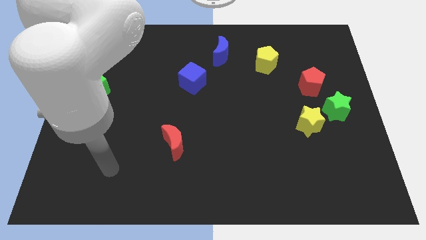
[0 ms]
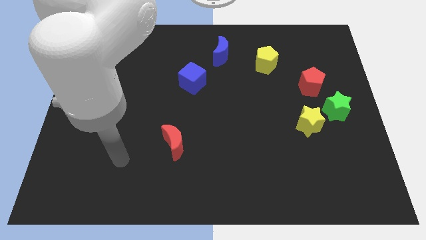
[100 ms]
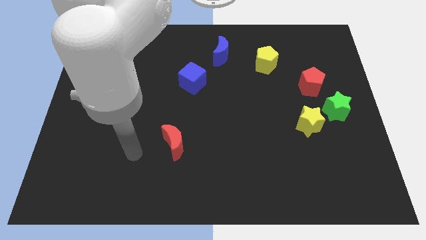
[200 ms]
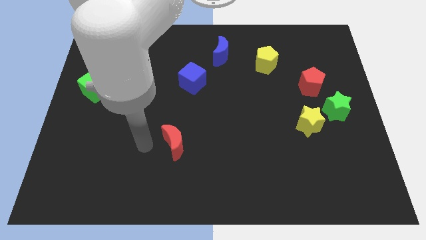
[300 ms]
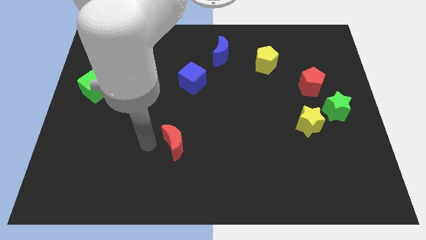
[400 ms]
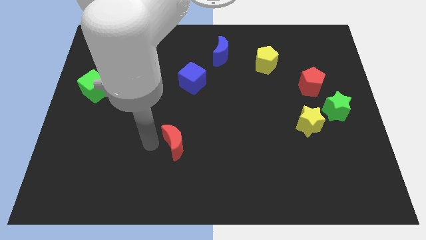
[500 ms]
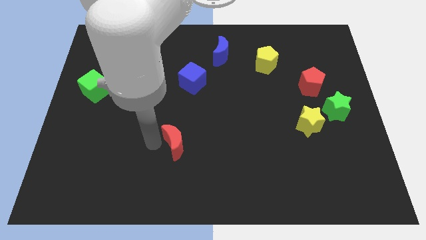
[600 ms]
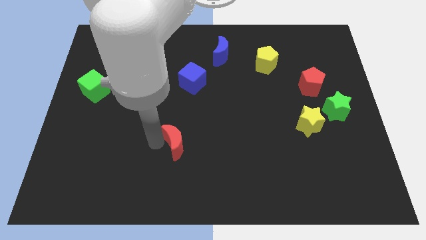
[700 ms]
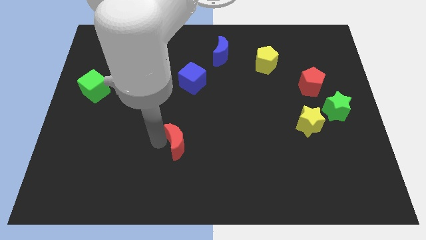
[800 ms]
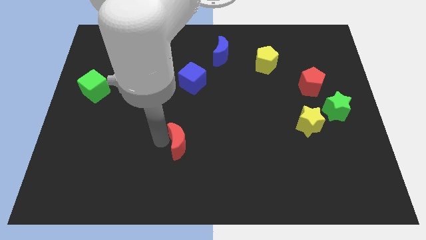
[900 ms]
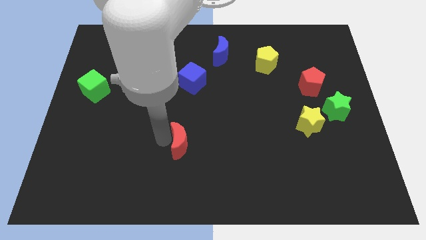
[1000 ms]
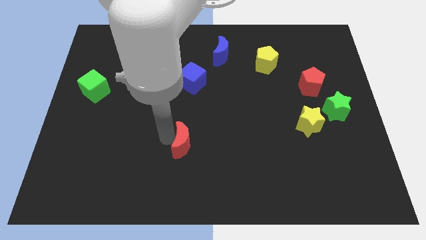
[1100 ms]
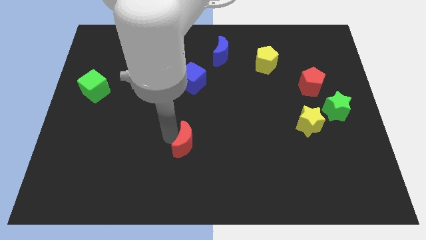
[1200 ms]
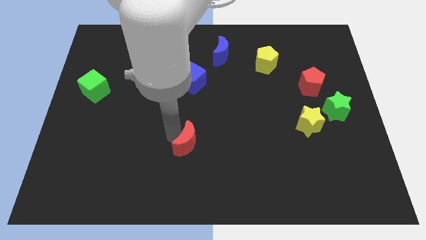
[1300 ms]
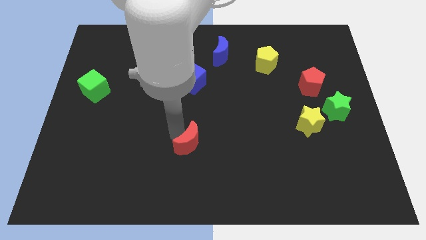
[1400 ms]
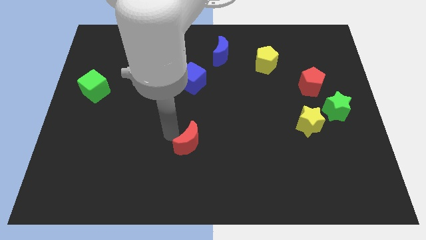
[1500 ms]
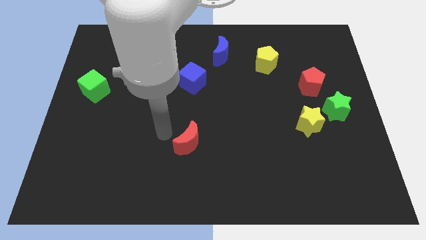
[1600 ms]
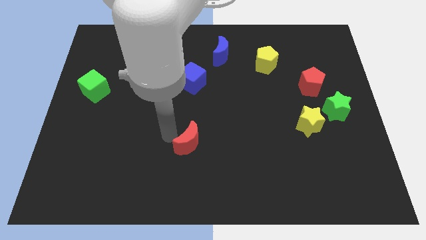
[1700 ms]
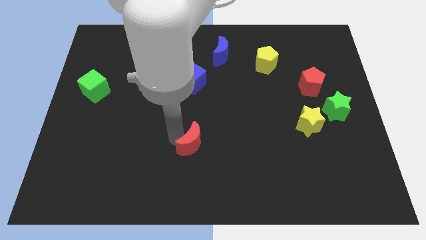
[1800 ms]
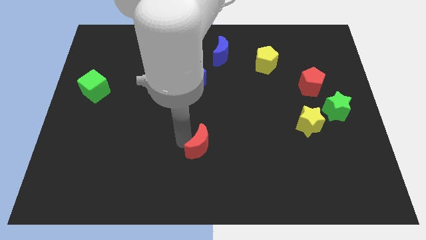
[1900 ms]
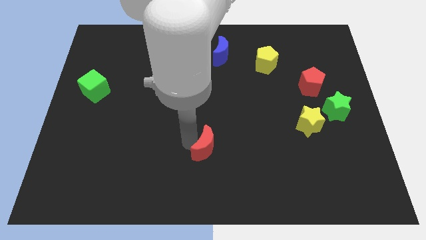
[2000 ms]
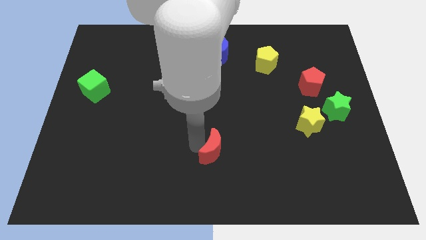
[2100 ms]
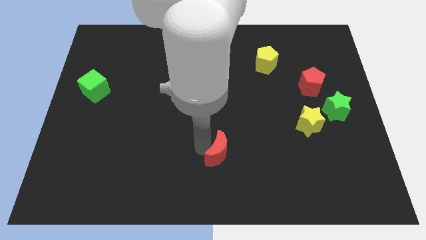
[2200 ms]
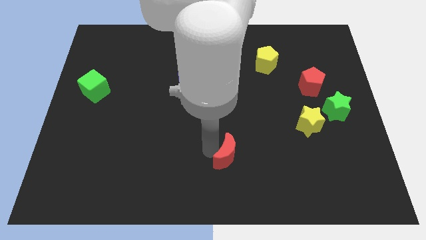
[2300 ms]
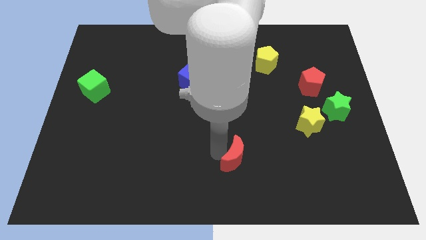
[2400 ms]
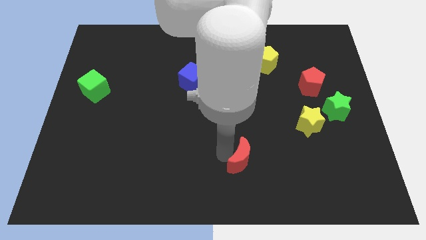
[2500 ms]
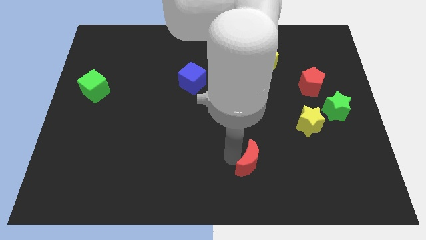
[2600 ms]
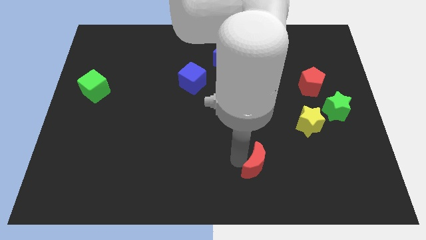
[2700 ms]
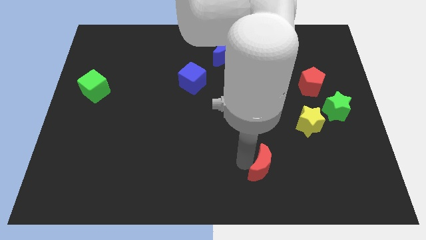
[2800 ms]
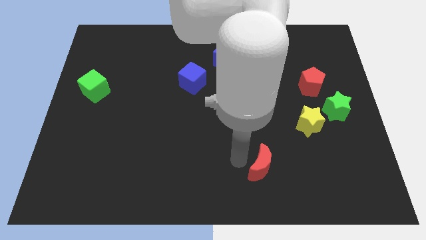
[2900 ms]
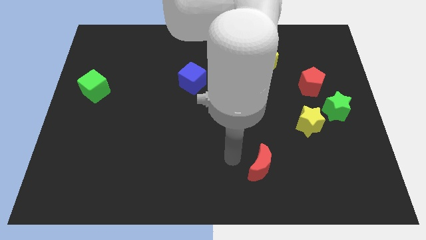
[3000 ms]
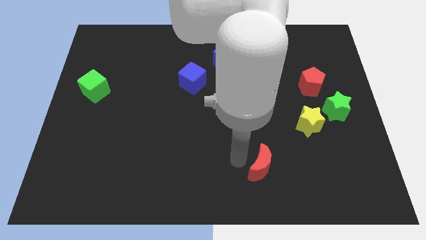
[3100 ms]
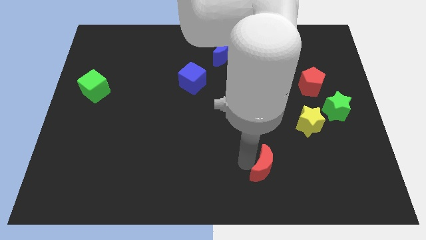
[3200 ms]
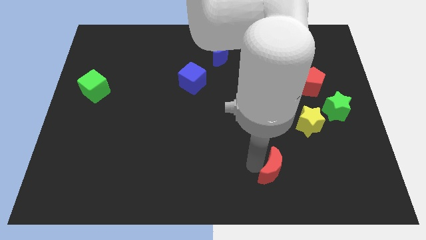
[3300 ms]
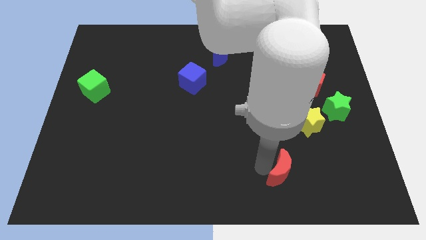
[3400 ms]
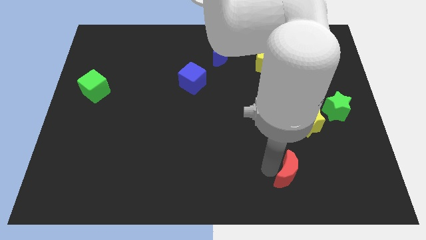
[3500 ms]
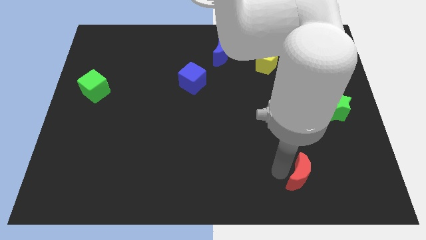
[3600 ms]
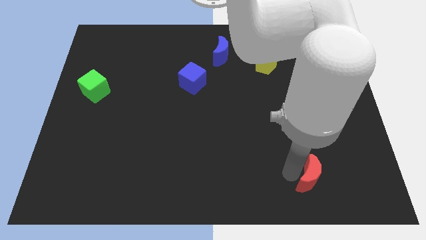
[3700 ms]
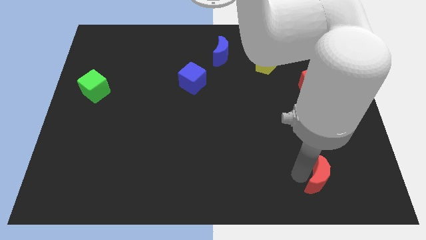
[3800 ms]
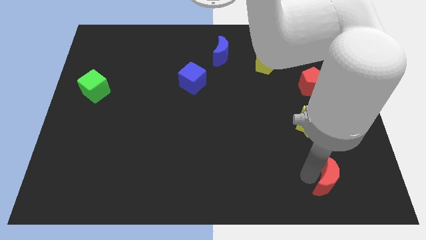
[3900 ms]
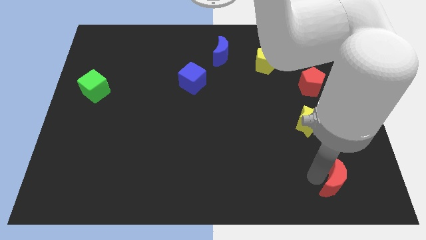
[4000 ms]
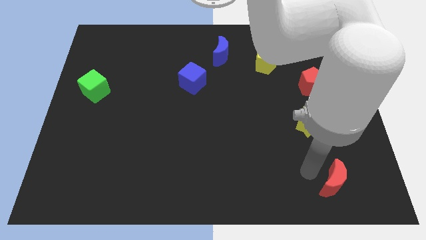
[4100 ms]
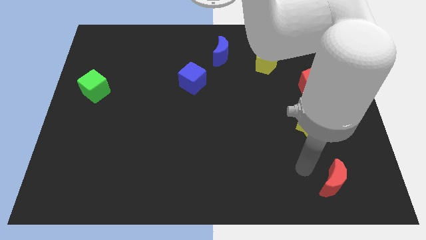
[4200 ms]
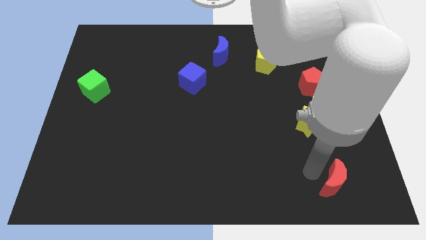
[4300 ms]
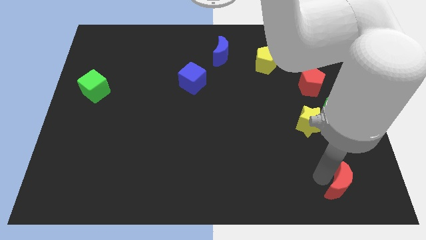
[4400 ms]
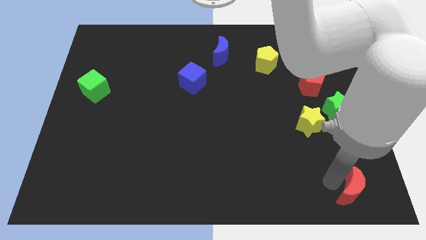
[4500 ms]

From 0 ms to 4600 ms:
move the red moon to the lower right corner

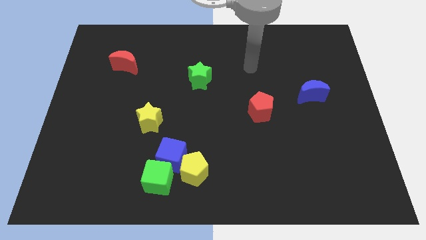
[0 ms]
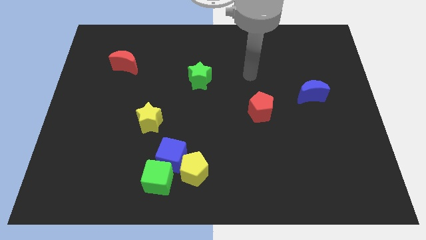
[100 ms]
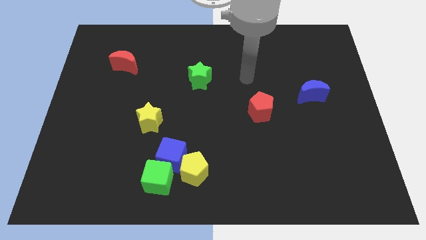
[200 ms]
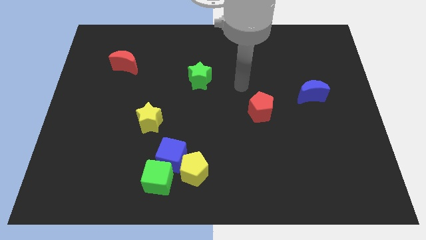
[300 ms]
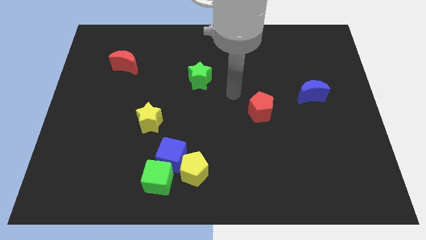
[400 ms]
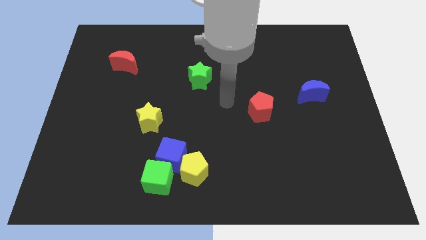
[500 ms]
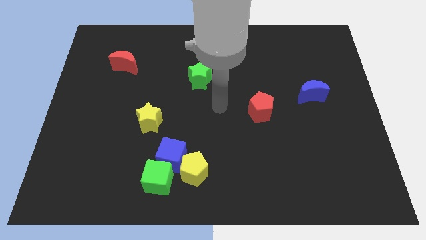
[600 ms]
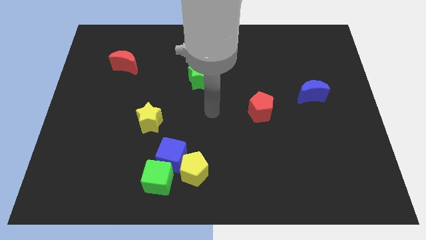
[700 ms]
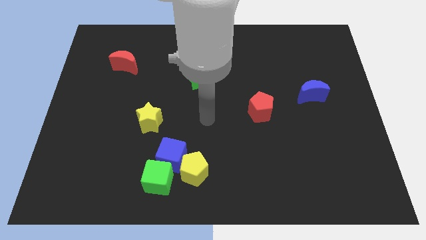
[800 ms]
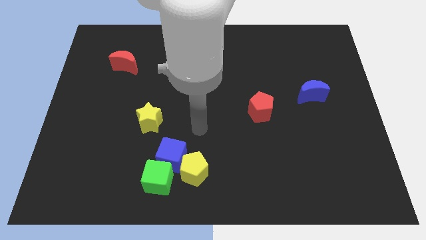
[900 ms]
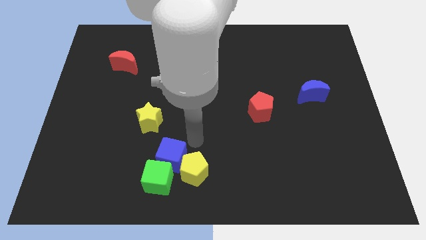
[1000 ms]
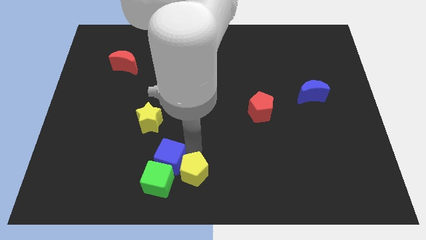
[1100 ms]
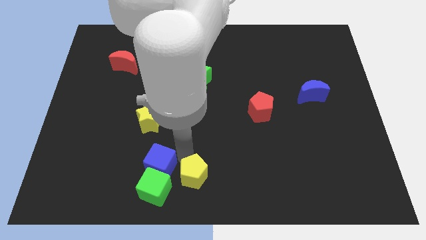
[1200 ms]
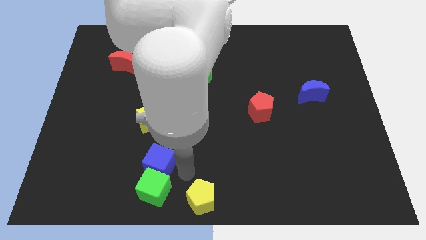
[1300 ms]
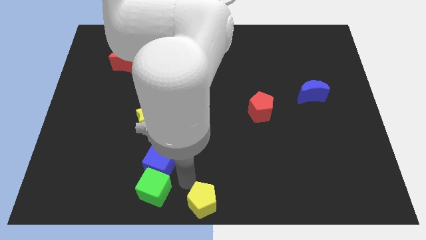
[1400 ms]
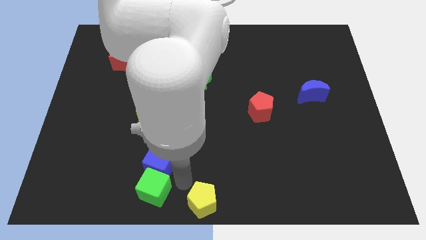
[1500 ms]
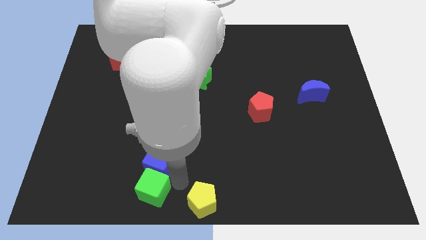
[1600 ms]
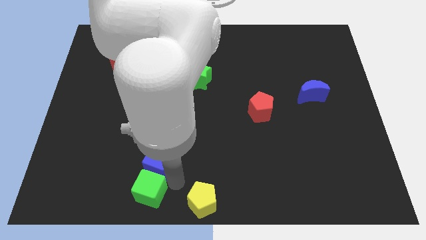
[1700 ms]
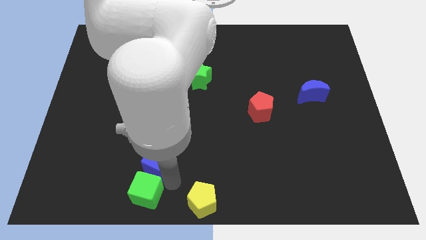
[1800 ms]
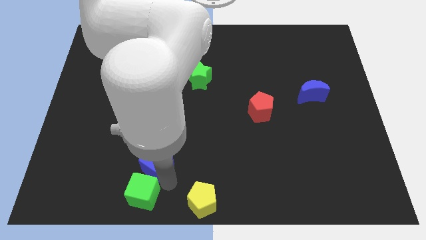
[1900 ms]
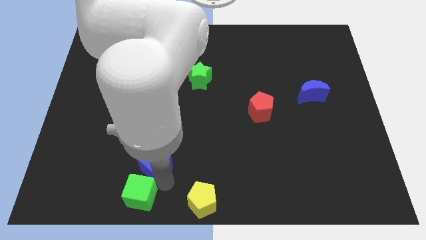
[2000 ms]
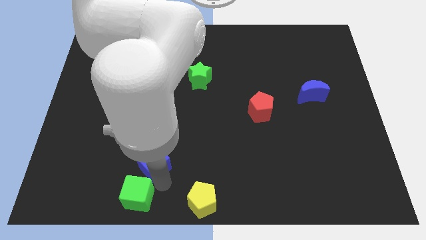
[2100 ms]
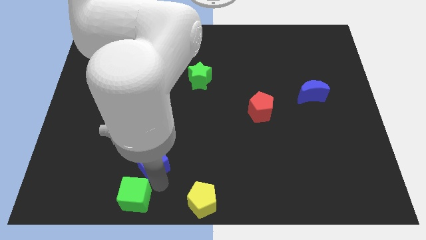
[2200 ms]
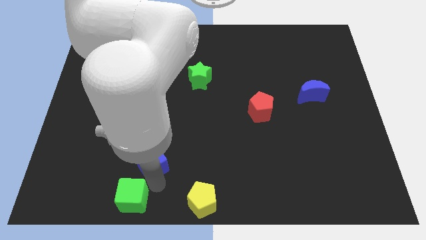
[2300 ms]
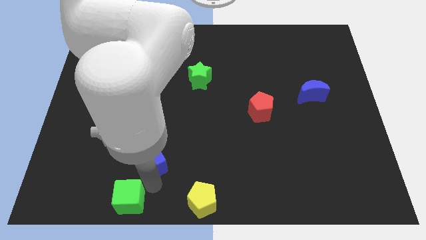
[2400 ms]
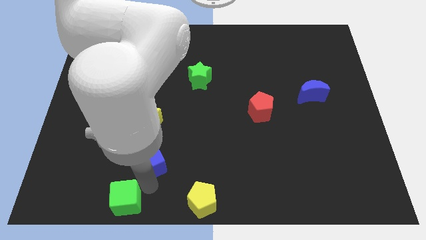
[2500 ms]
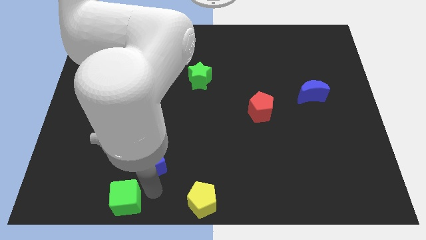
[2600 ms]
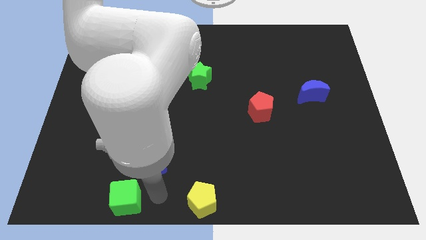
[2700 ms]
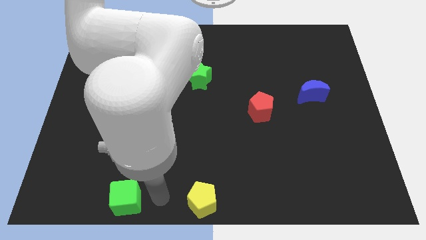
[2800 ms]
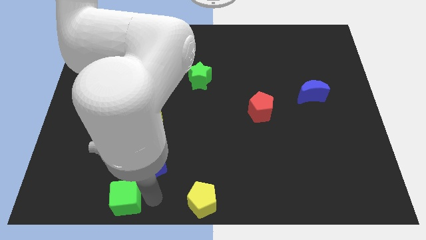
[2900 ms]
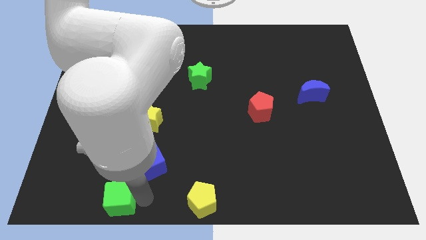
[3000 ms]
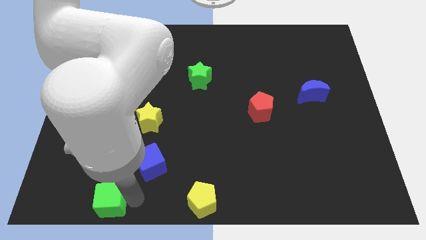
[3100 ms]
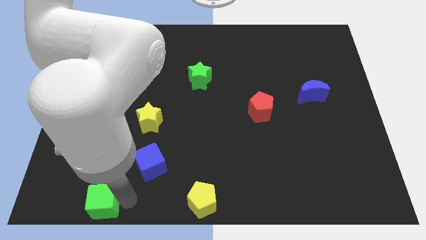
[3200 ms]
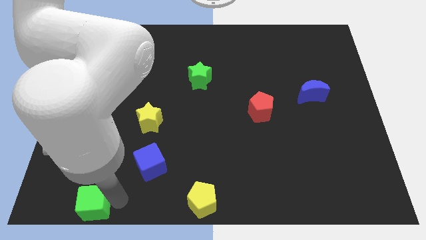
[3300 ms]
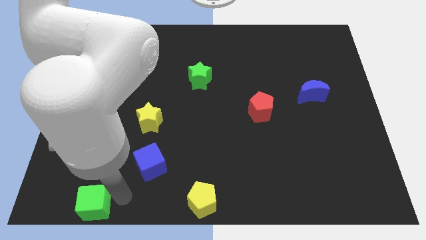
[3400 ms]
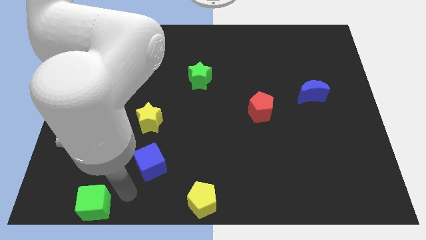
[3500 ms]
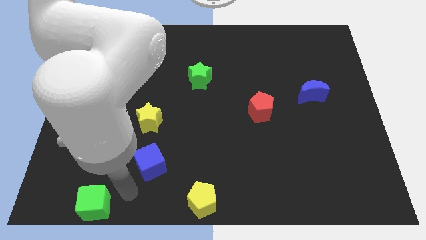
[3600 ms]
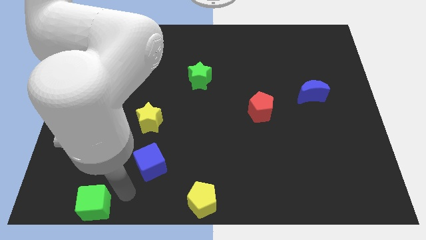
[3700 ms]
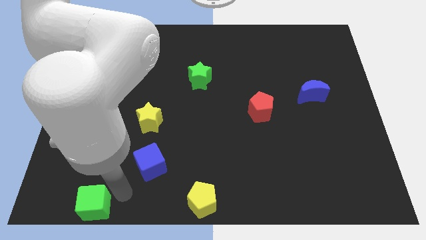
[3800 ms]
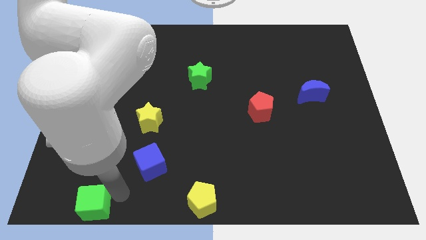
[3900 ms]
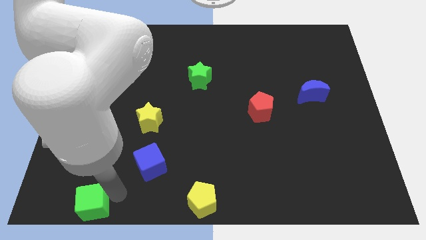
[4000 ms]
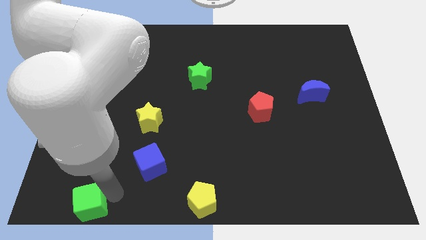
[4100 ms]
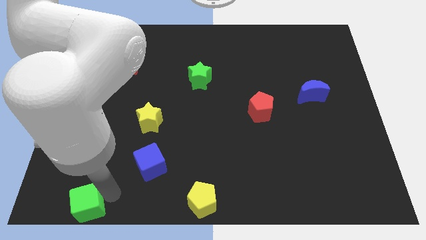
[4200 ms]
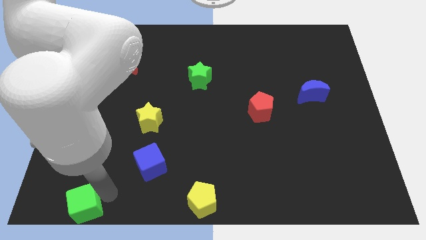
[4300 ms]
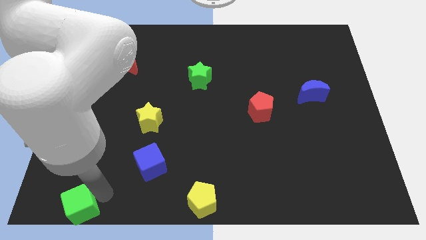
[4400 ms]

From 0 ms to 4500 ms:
put the green cube to the lower left corner
